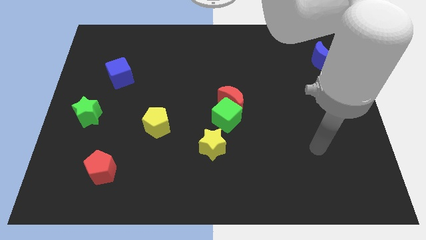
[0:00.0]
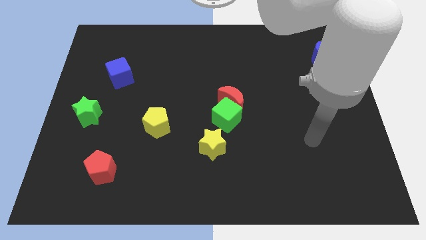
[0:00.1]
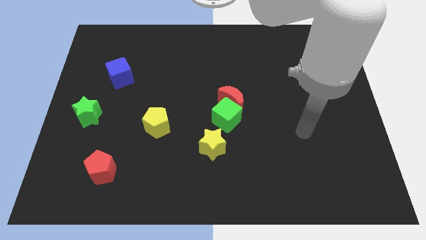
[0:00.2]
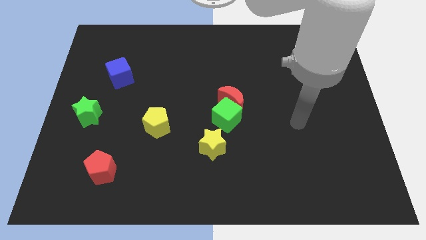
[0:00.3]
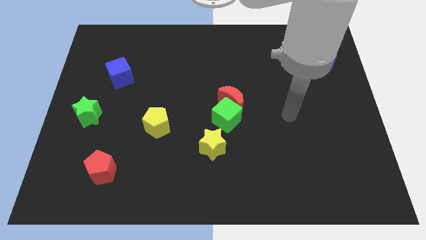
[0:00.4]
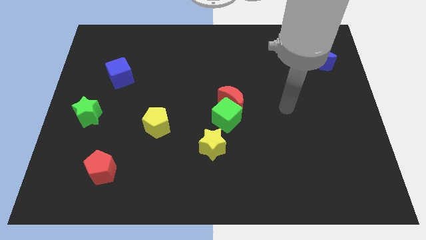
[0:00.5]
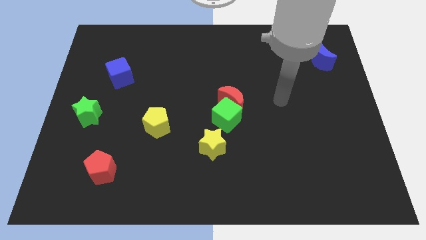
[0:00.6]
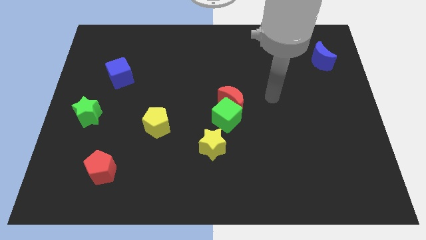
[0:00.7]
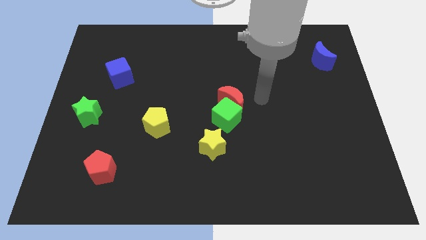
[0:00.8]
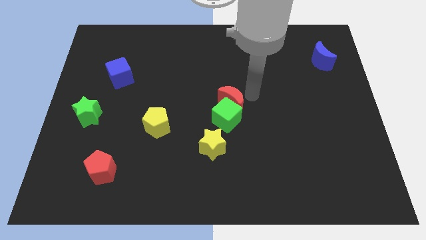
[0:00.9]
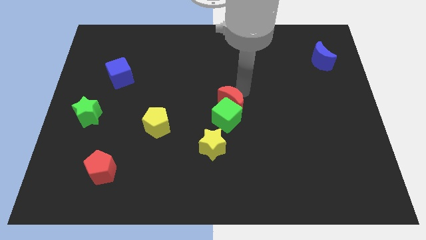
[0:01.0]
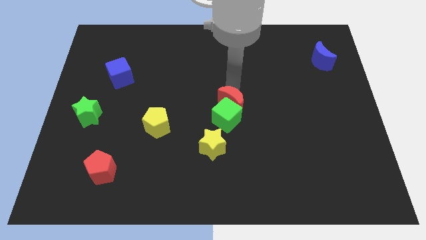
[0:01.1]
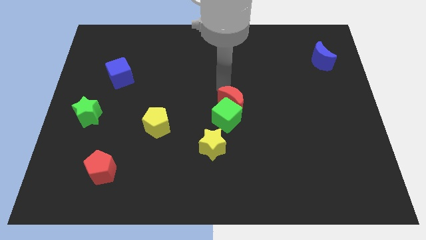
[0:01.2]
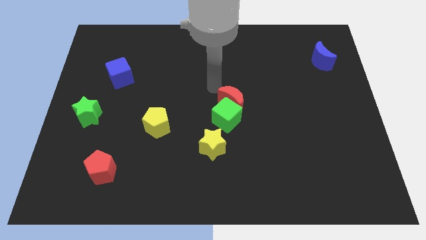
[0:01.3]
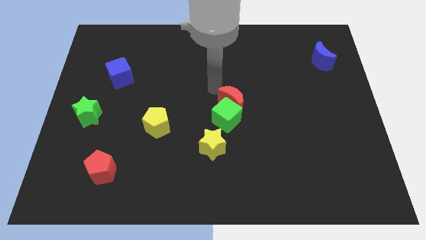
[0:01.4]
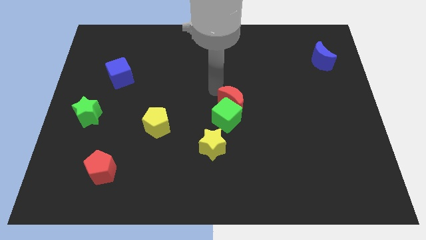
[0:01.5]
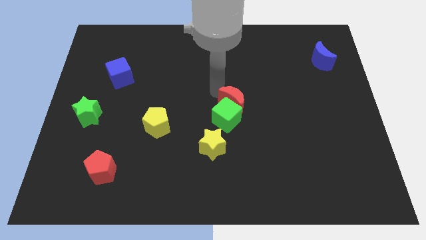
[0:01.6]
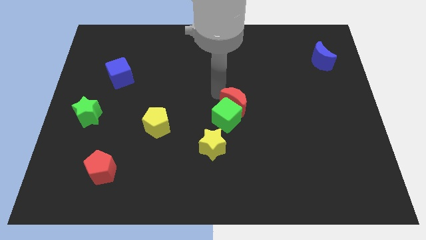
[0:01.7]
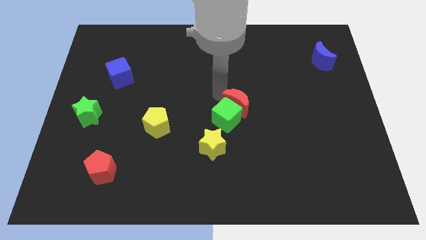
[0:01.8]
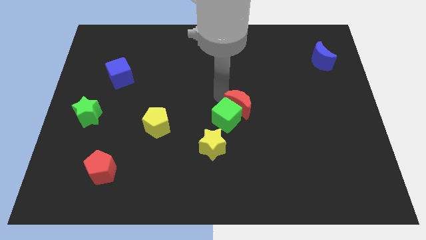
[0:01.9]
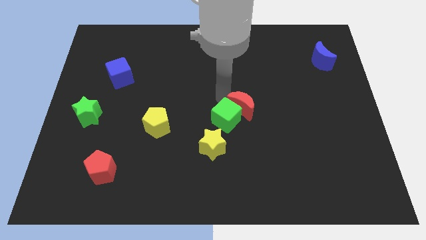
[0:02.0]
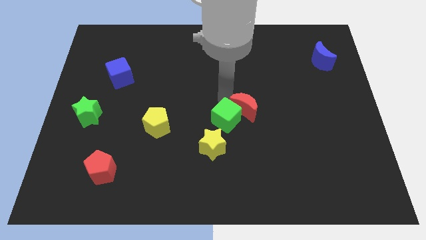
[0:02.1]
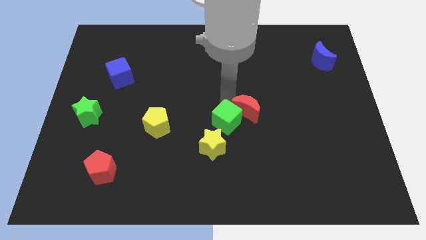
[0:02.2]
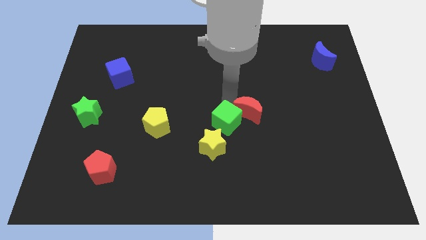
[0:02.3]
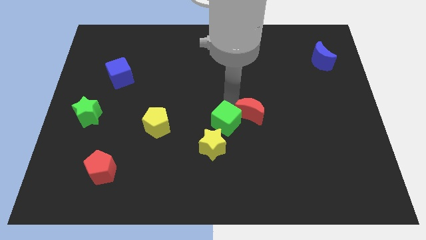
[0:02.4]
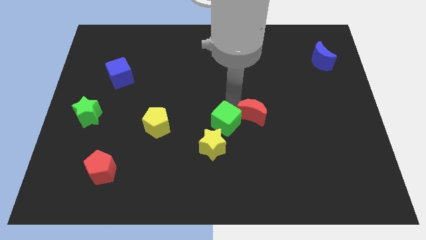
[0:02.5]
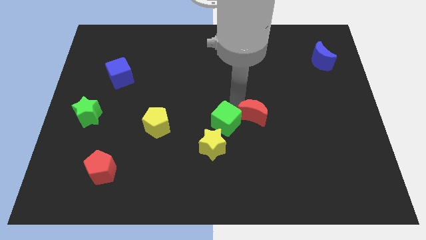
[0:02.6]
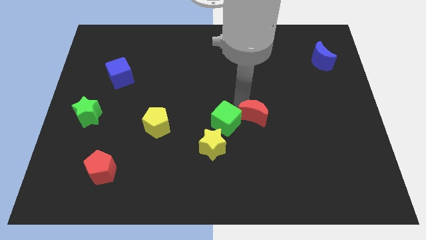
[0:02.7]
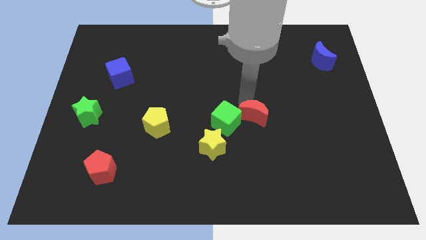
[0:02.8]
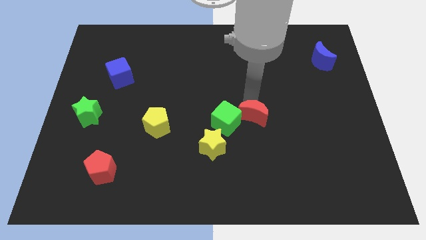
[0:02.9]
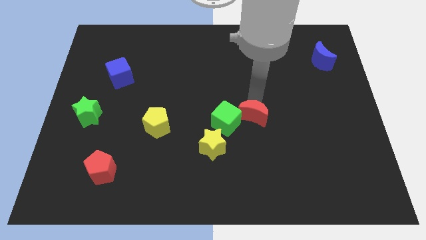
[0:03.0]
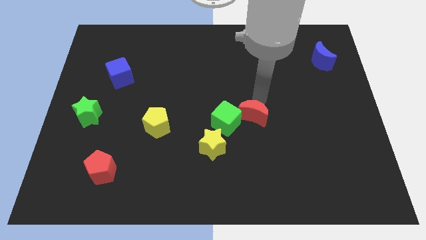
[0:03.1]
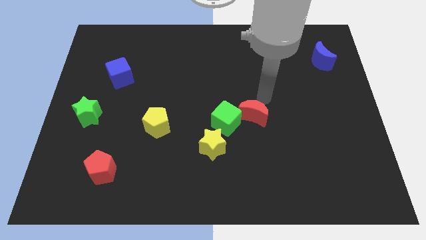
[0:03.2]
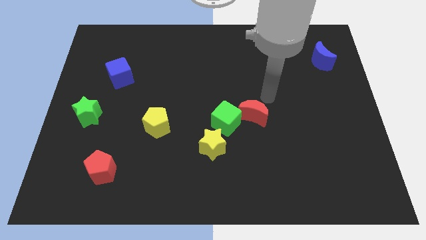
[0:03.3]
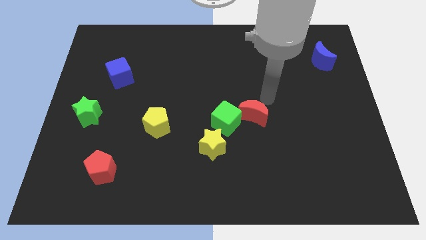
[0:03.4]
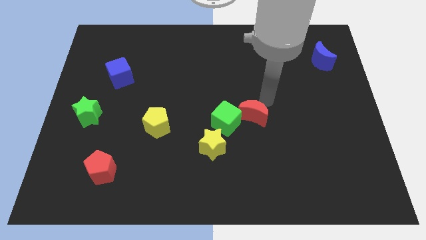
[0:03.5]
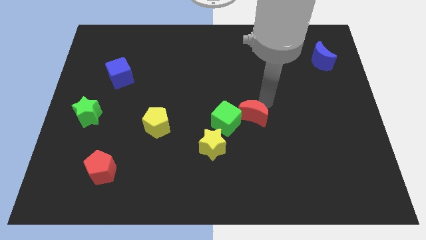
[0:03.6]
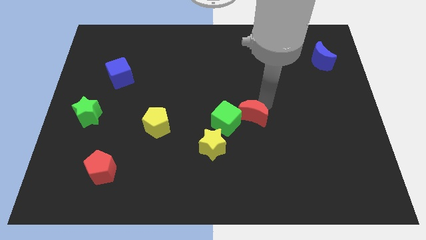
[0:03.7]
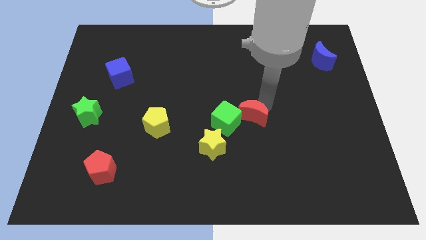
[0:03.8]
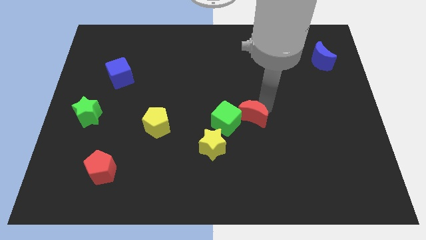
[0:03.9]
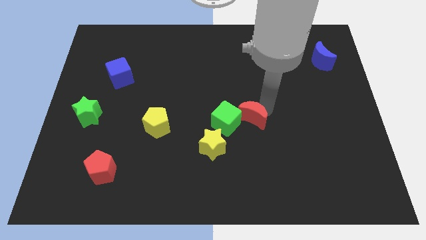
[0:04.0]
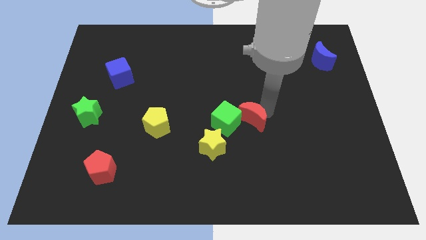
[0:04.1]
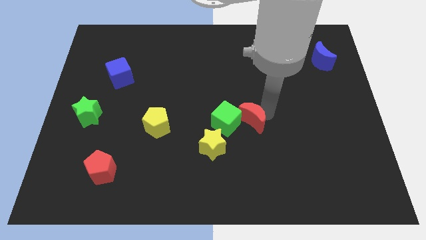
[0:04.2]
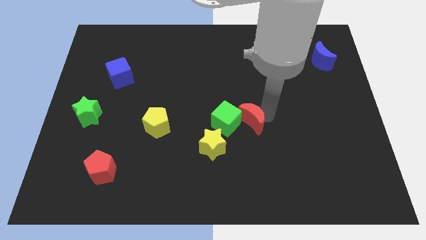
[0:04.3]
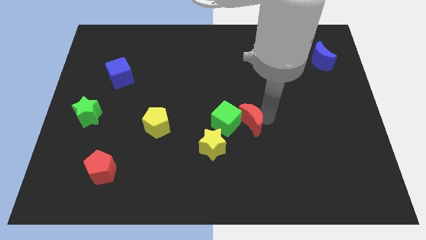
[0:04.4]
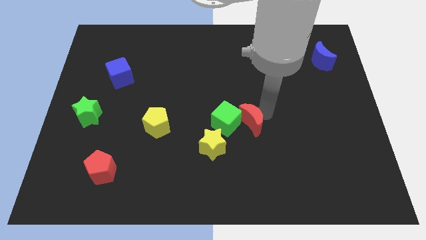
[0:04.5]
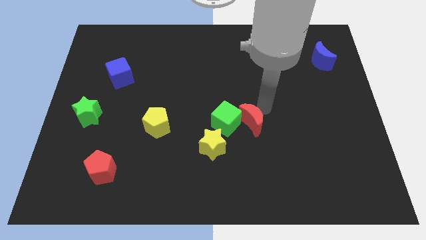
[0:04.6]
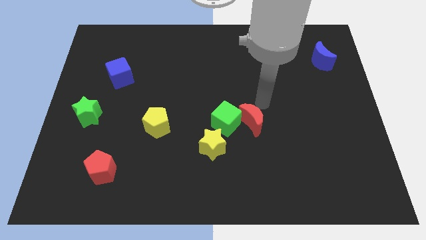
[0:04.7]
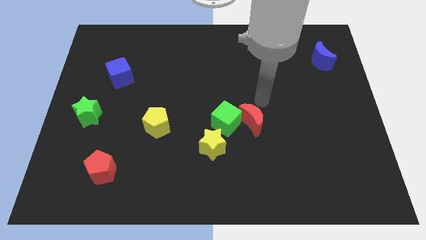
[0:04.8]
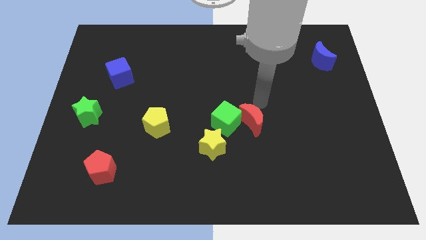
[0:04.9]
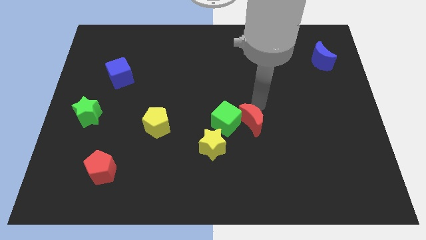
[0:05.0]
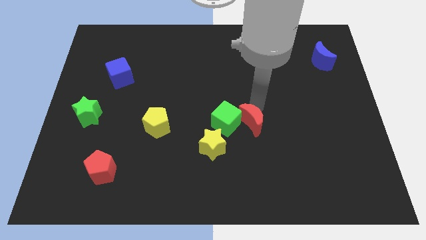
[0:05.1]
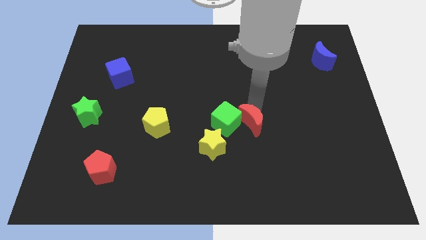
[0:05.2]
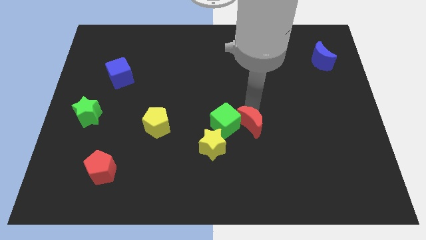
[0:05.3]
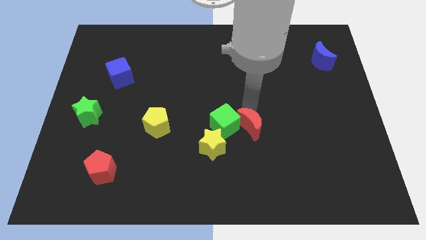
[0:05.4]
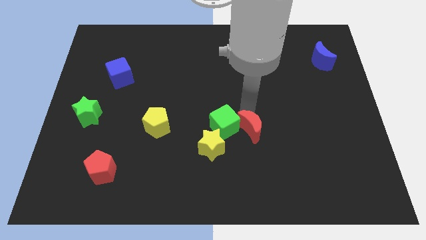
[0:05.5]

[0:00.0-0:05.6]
slightly push the red moon down

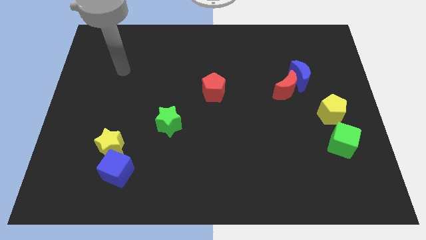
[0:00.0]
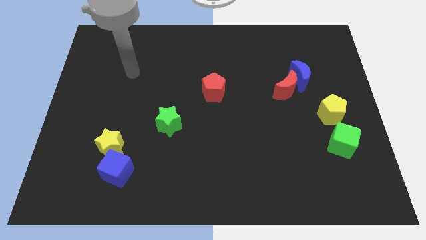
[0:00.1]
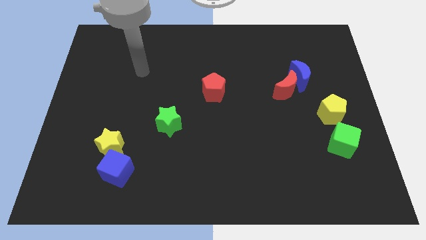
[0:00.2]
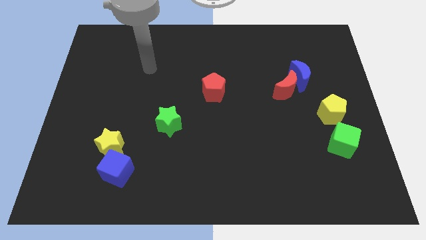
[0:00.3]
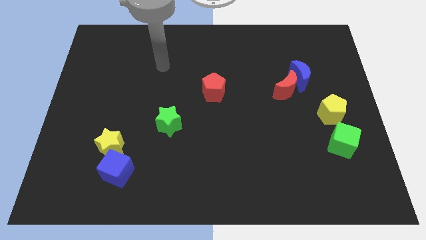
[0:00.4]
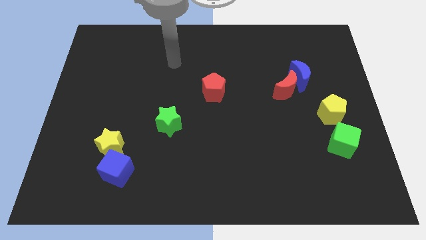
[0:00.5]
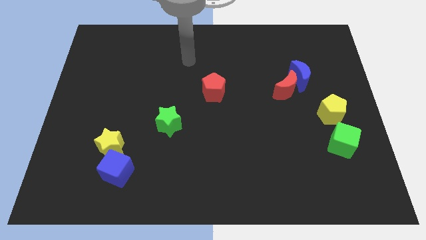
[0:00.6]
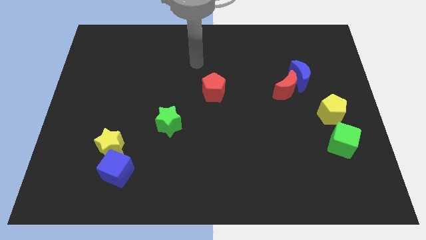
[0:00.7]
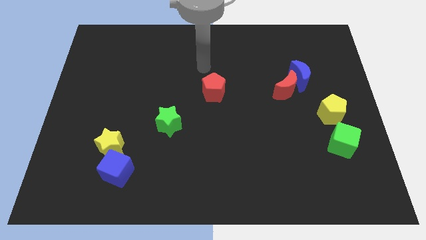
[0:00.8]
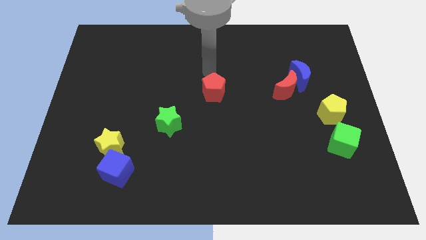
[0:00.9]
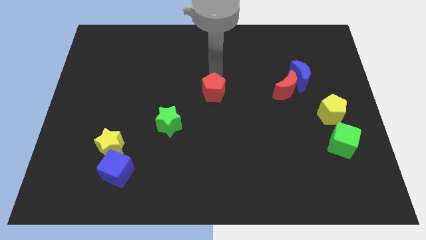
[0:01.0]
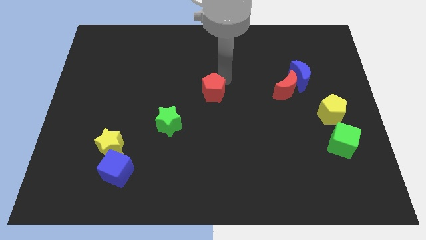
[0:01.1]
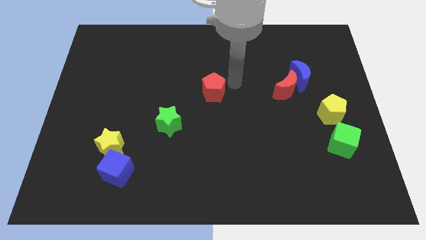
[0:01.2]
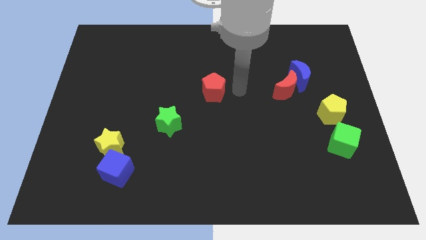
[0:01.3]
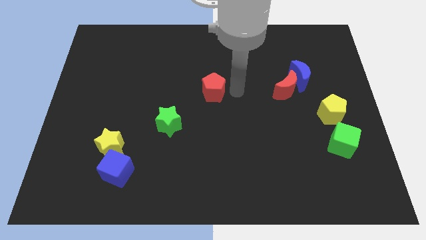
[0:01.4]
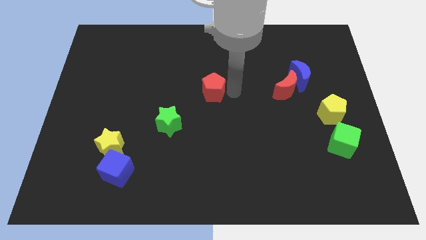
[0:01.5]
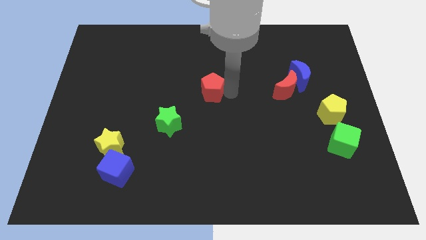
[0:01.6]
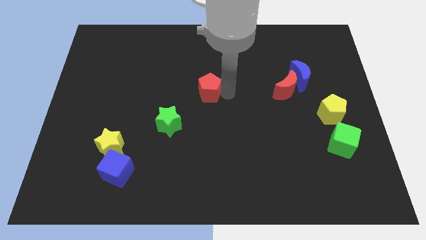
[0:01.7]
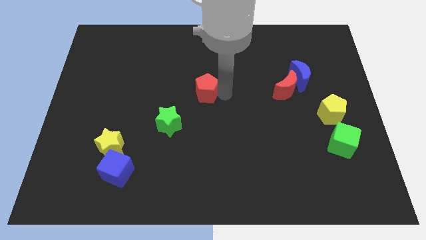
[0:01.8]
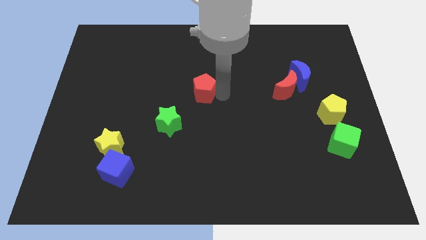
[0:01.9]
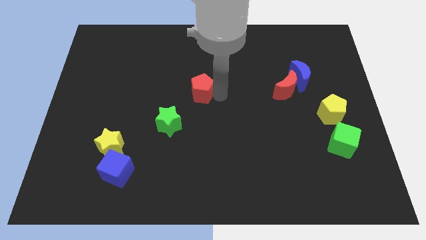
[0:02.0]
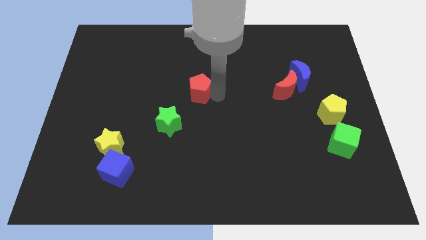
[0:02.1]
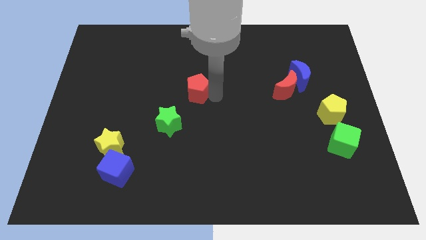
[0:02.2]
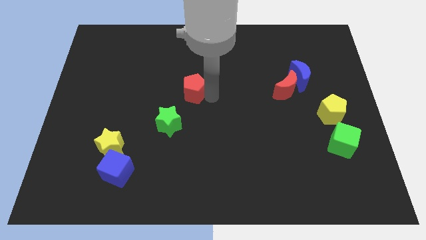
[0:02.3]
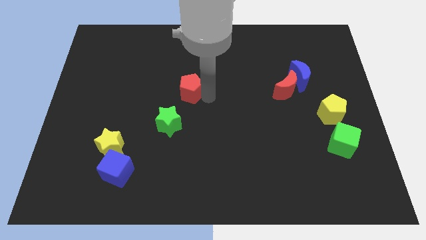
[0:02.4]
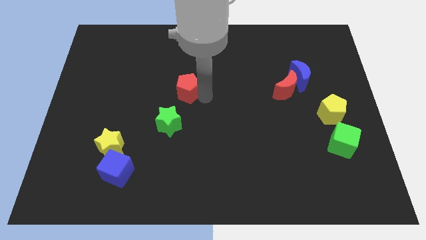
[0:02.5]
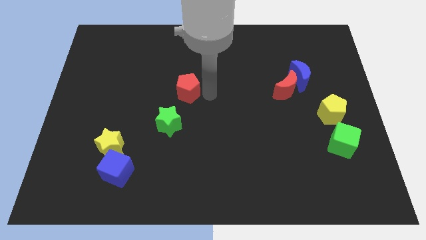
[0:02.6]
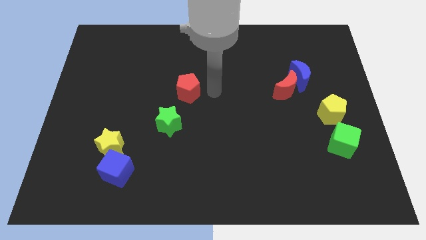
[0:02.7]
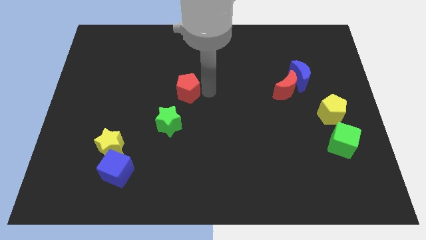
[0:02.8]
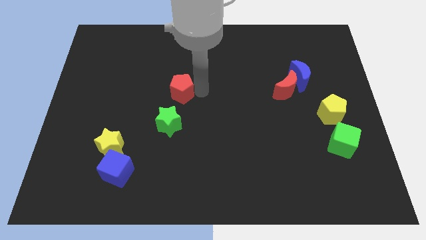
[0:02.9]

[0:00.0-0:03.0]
push the red pentagon a little to the left
